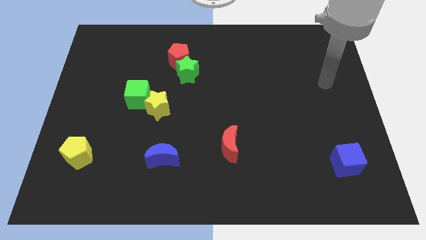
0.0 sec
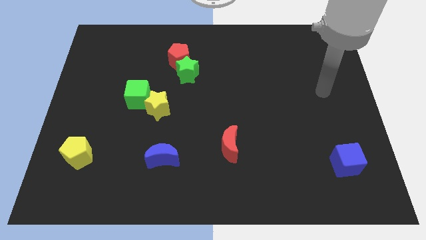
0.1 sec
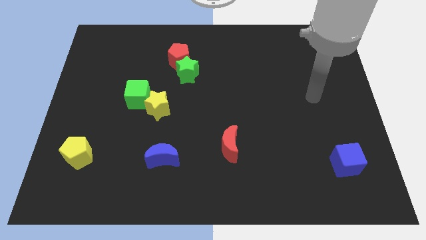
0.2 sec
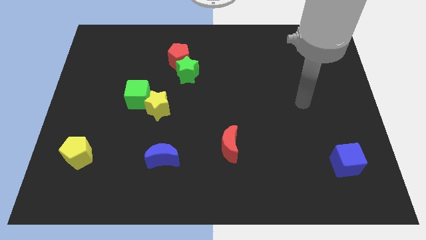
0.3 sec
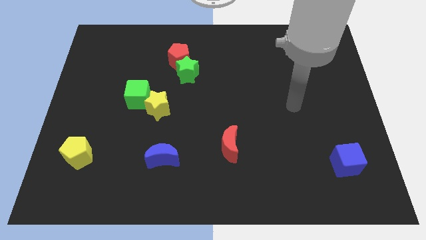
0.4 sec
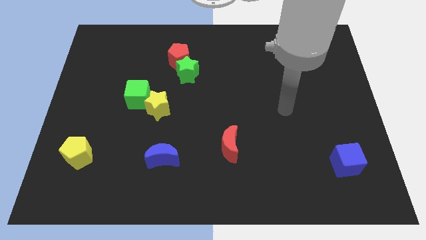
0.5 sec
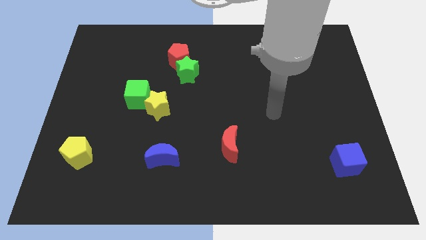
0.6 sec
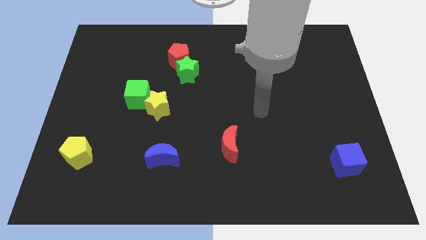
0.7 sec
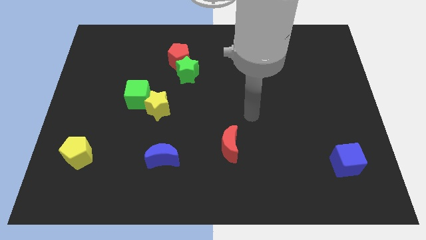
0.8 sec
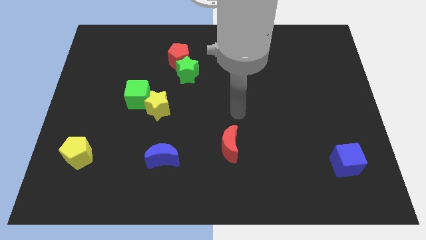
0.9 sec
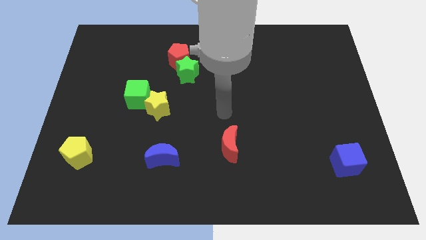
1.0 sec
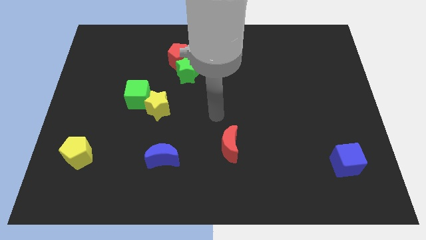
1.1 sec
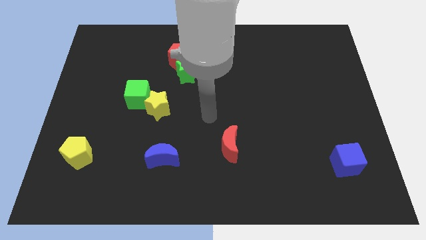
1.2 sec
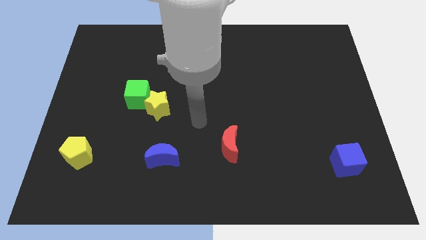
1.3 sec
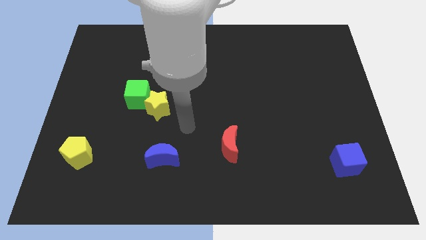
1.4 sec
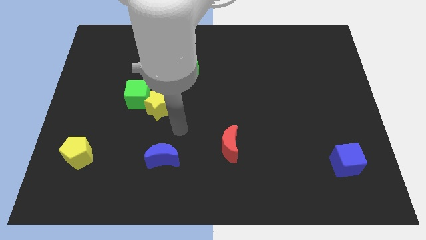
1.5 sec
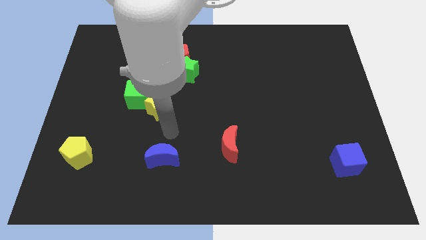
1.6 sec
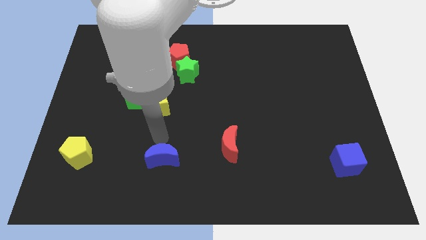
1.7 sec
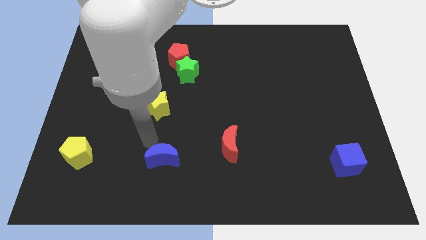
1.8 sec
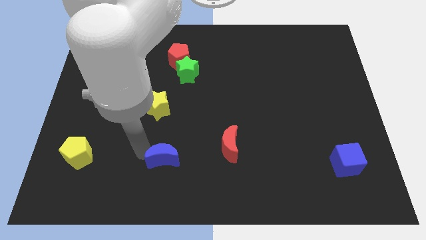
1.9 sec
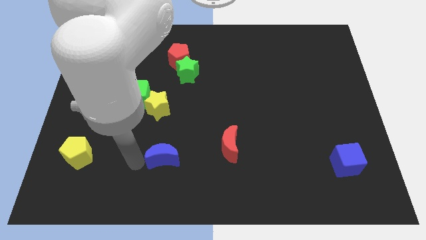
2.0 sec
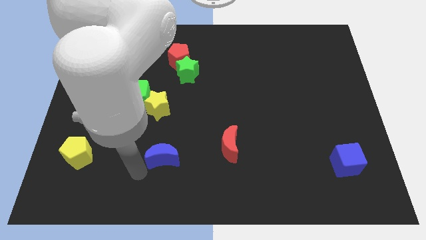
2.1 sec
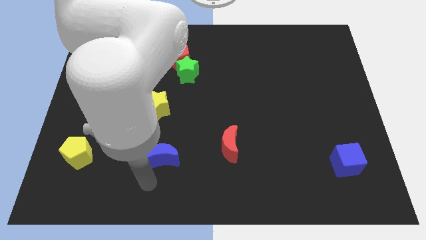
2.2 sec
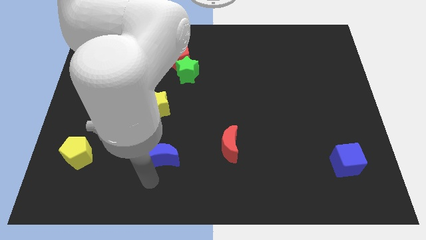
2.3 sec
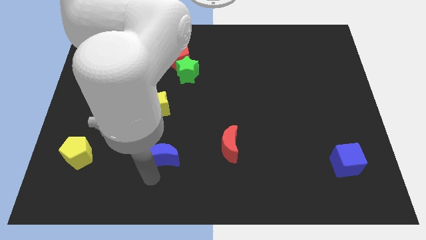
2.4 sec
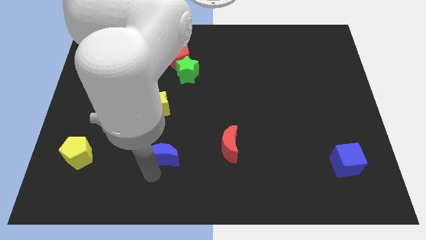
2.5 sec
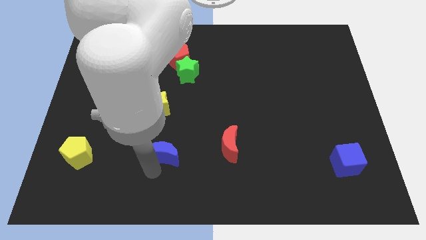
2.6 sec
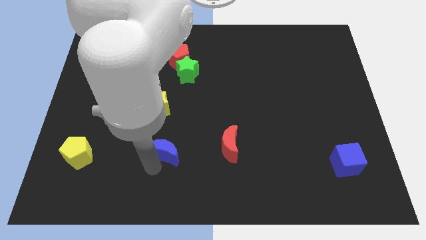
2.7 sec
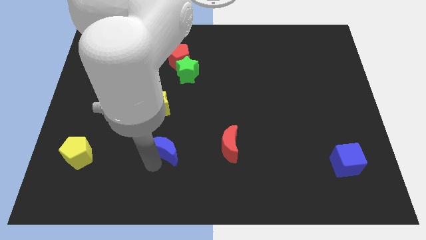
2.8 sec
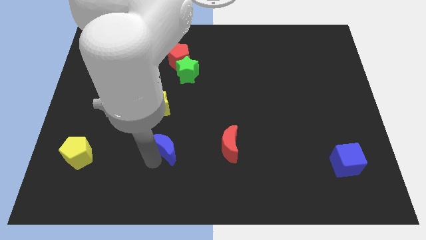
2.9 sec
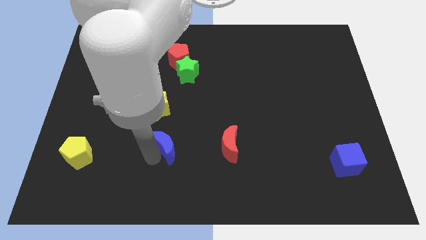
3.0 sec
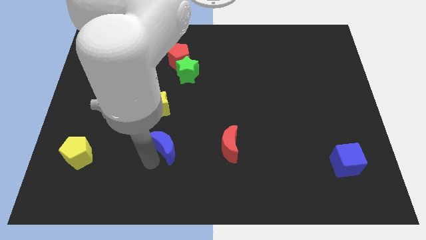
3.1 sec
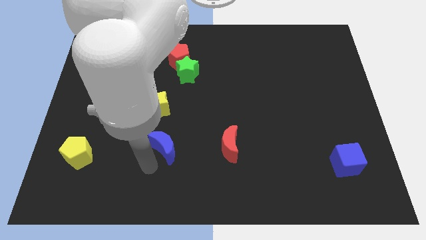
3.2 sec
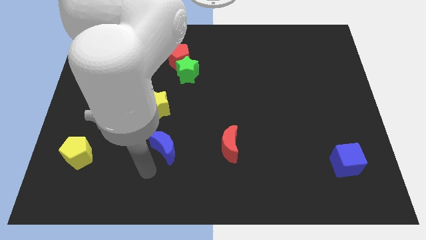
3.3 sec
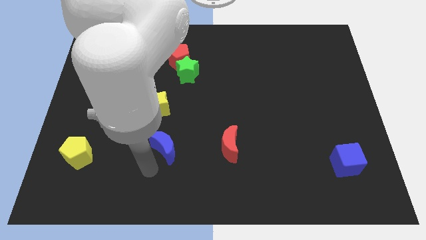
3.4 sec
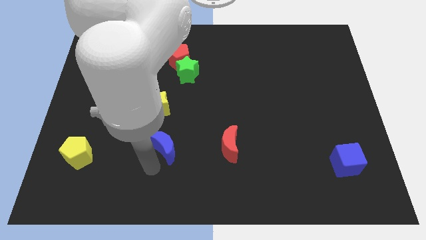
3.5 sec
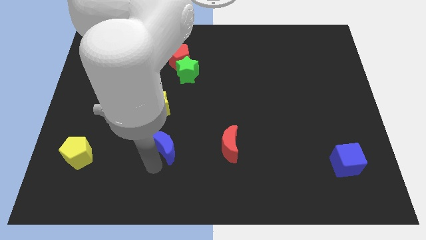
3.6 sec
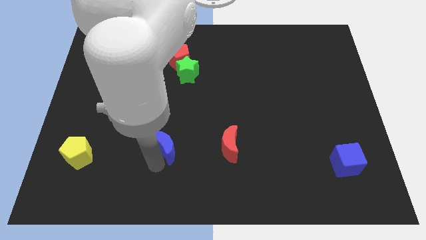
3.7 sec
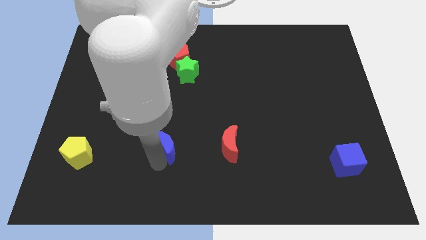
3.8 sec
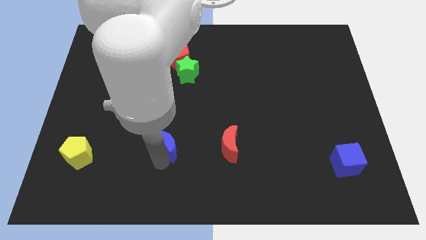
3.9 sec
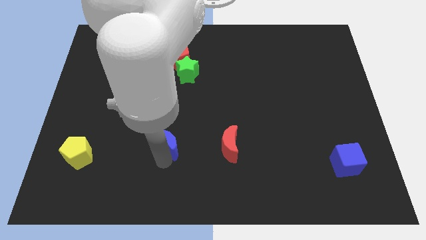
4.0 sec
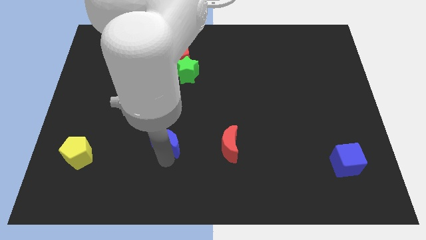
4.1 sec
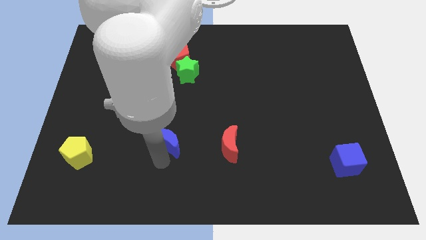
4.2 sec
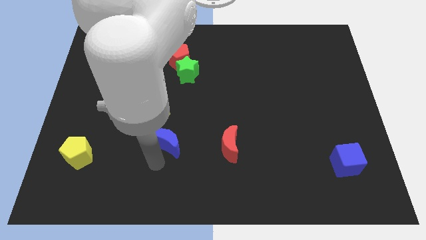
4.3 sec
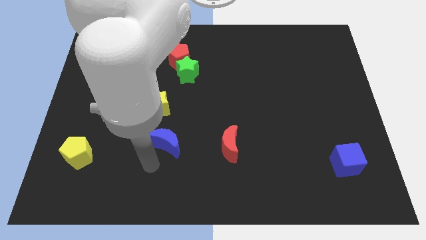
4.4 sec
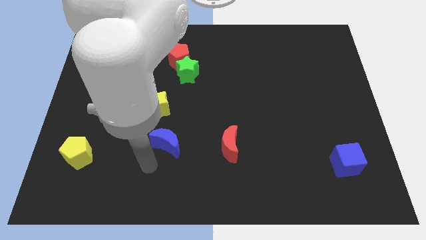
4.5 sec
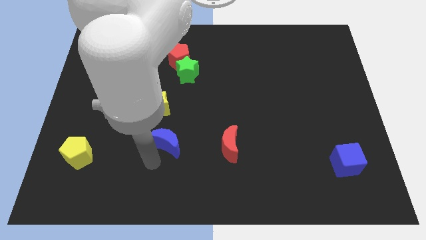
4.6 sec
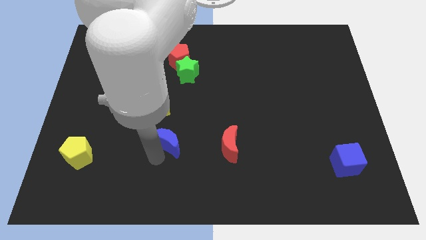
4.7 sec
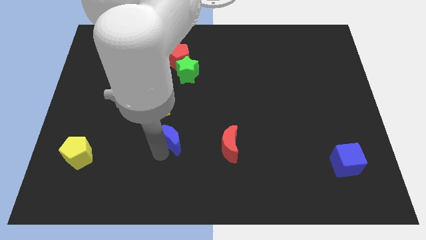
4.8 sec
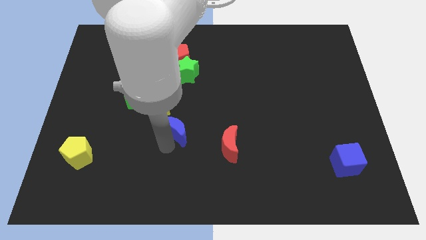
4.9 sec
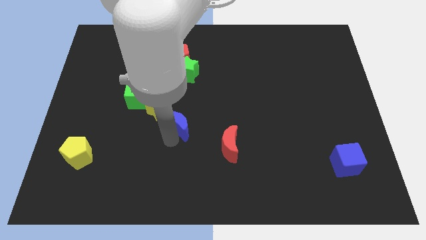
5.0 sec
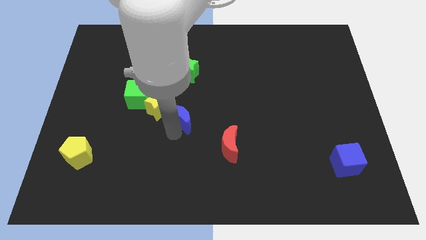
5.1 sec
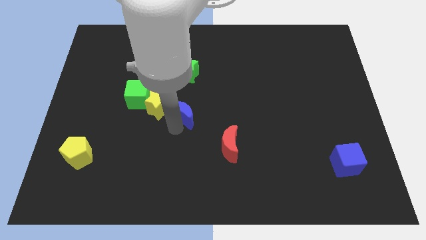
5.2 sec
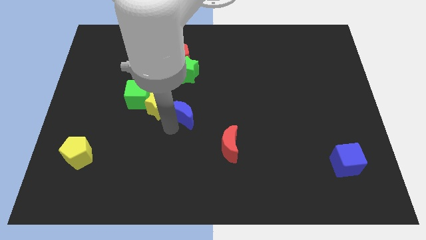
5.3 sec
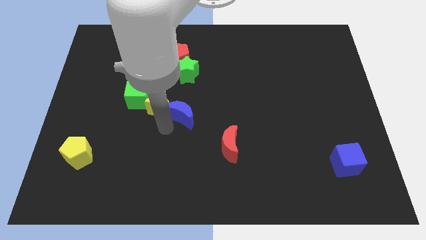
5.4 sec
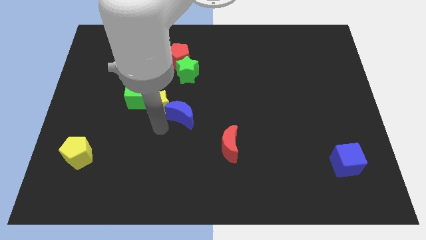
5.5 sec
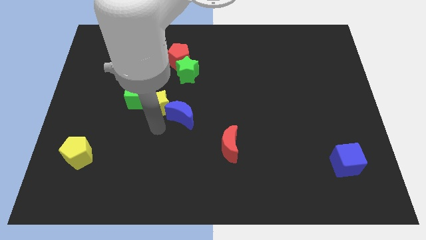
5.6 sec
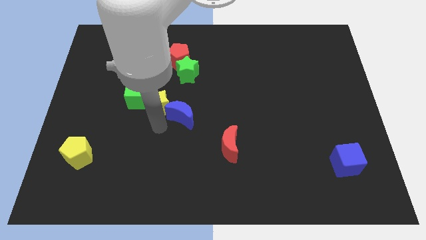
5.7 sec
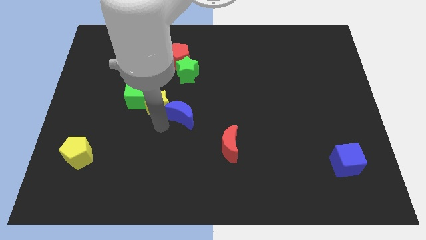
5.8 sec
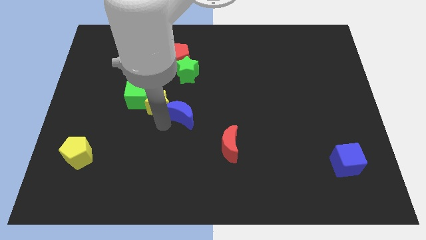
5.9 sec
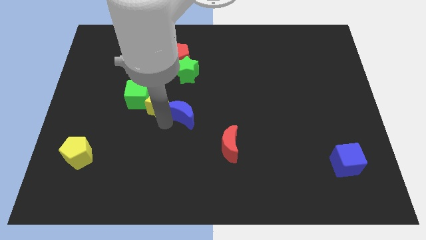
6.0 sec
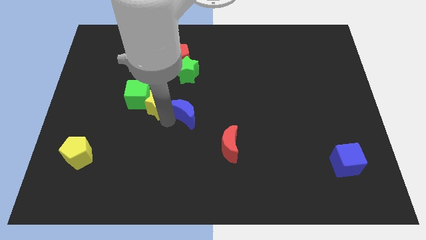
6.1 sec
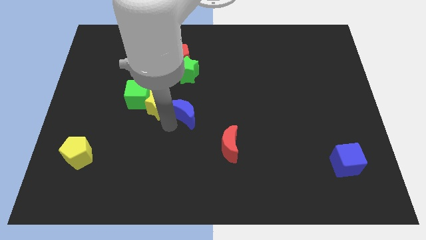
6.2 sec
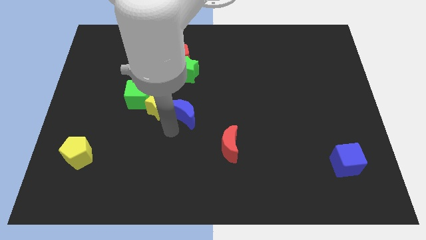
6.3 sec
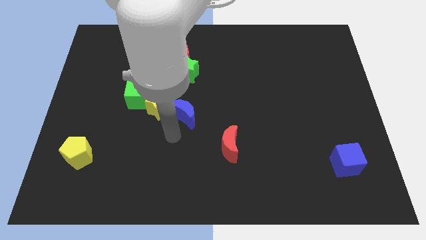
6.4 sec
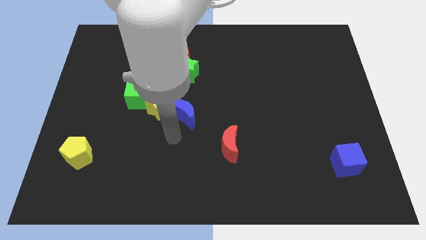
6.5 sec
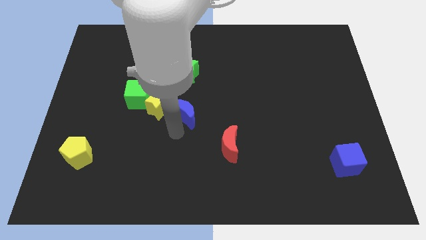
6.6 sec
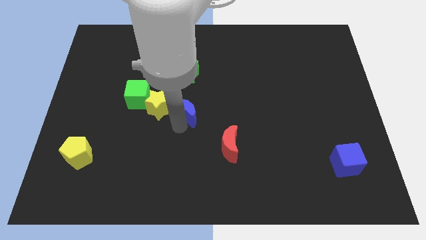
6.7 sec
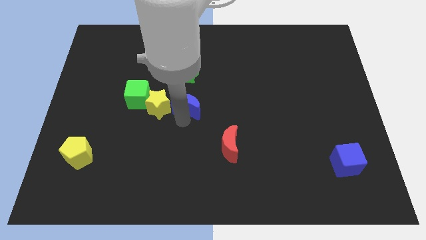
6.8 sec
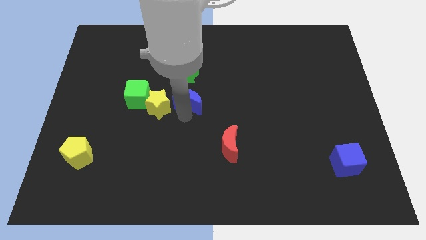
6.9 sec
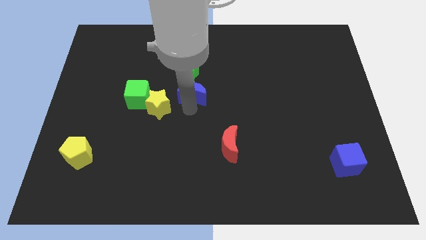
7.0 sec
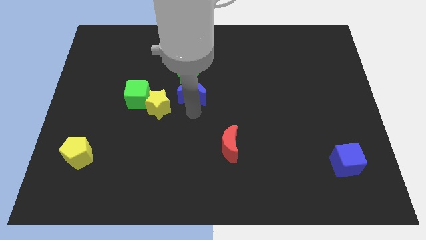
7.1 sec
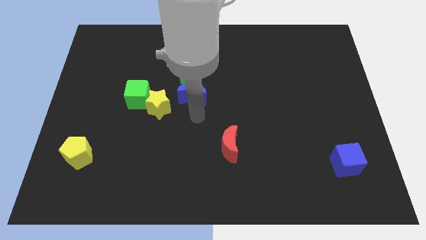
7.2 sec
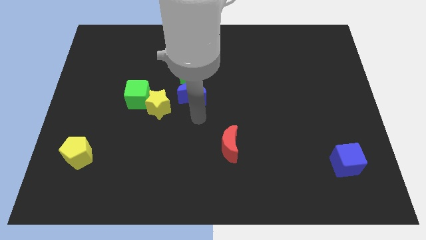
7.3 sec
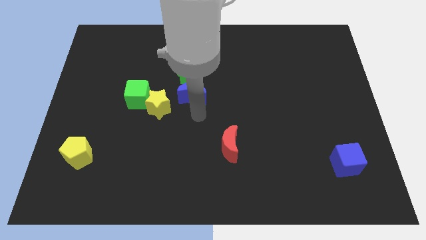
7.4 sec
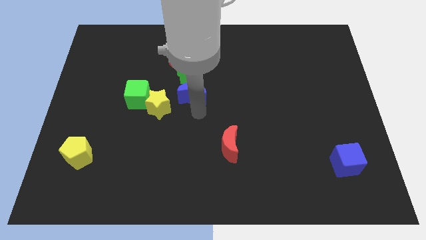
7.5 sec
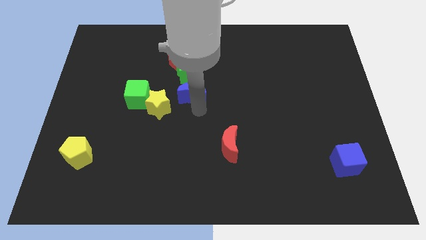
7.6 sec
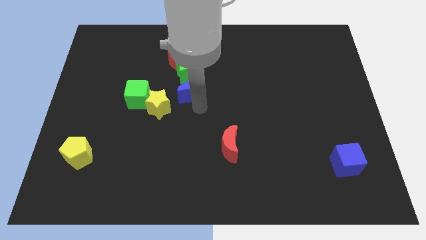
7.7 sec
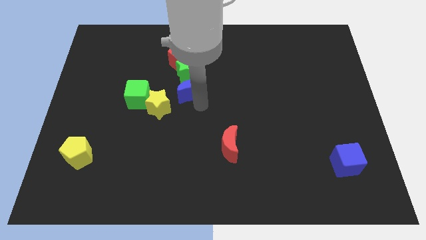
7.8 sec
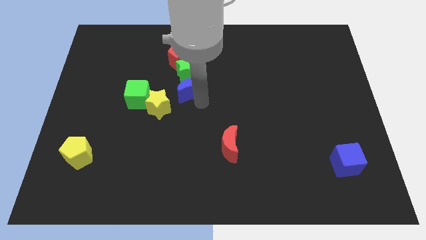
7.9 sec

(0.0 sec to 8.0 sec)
move the blue moon to the green star
